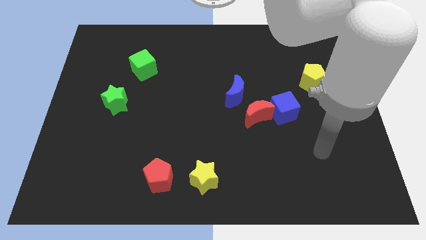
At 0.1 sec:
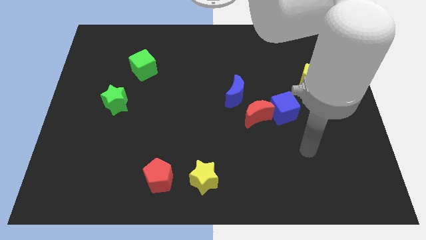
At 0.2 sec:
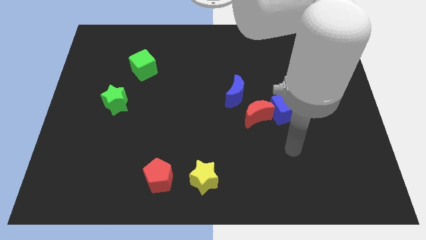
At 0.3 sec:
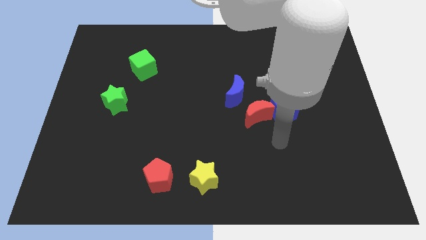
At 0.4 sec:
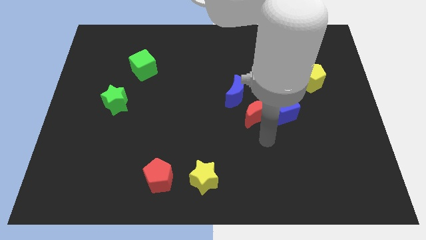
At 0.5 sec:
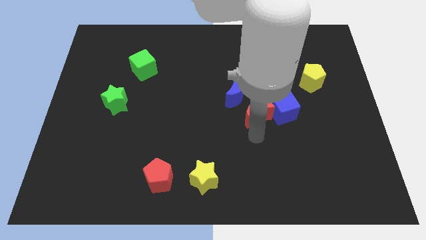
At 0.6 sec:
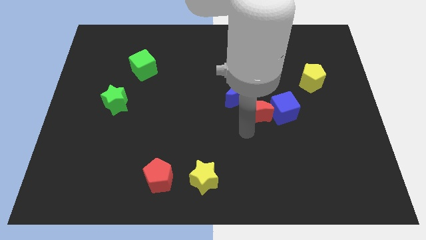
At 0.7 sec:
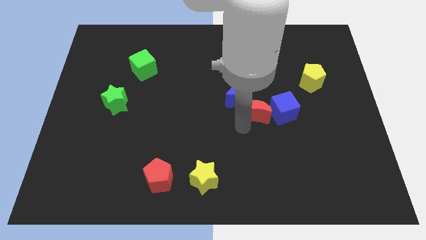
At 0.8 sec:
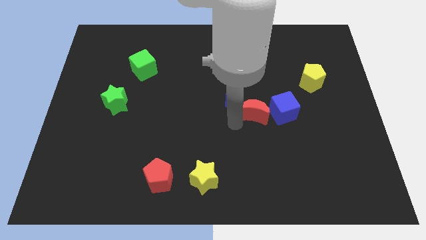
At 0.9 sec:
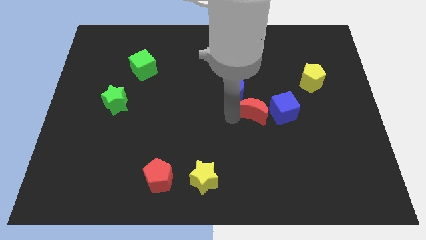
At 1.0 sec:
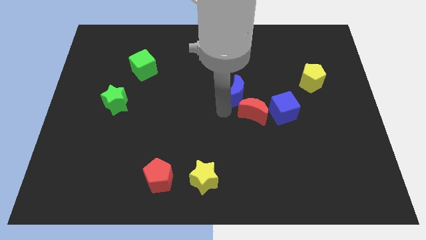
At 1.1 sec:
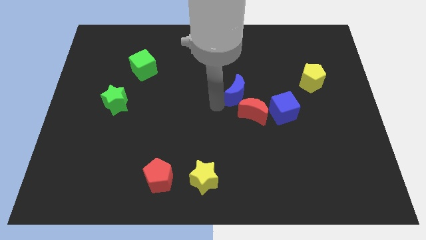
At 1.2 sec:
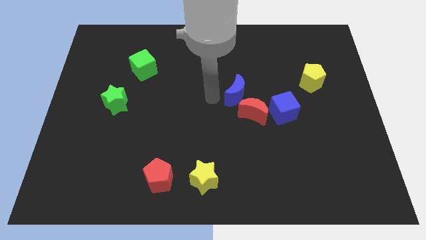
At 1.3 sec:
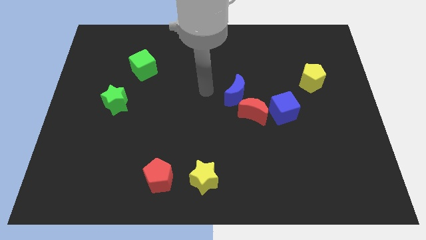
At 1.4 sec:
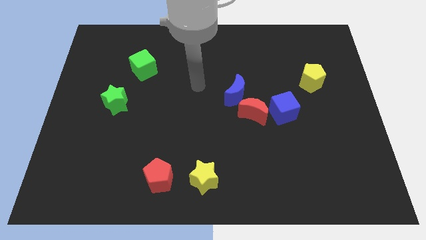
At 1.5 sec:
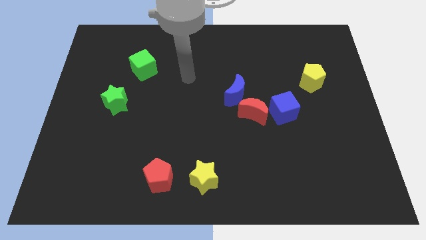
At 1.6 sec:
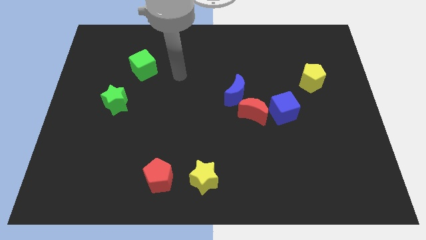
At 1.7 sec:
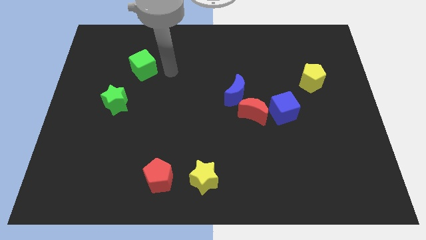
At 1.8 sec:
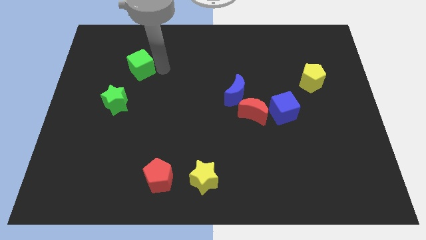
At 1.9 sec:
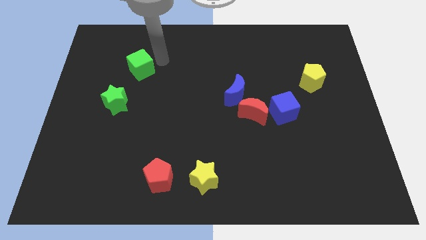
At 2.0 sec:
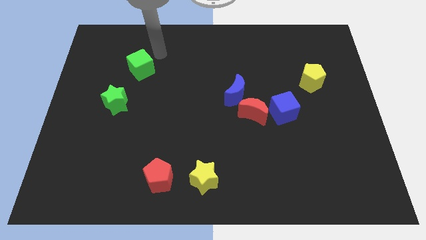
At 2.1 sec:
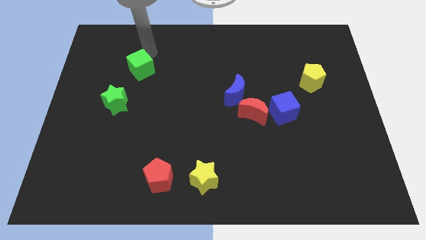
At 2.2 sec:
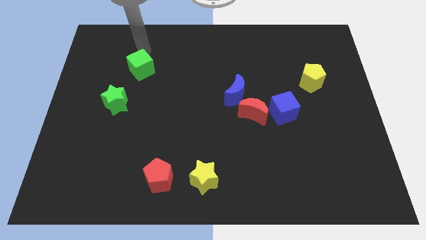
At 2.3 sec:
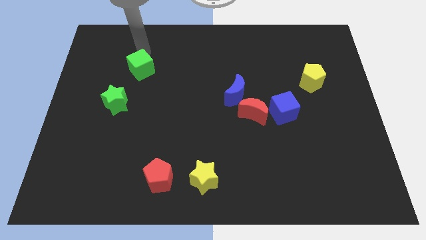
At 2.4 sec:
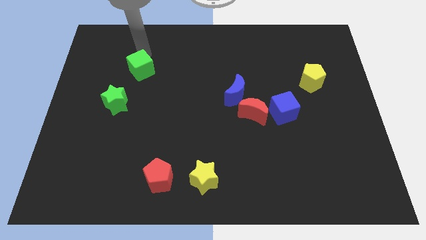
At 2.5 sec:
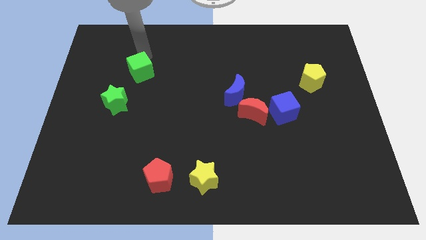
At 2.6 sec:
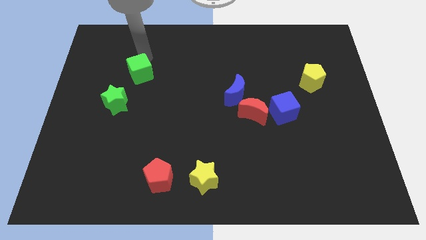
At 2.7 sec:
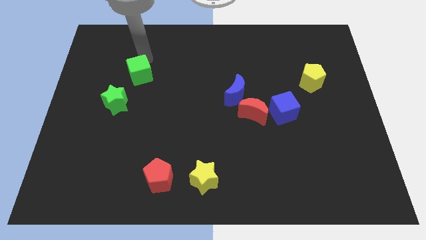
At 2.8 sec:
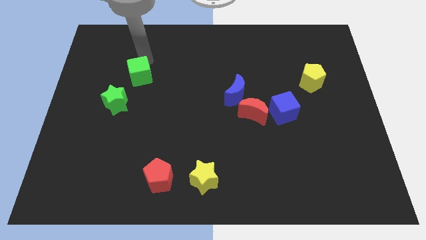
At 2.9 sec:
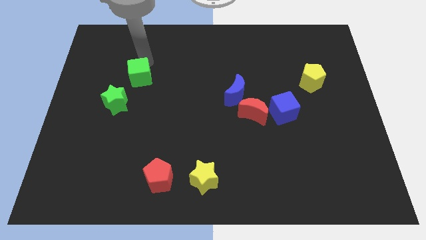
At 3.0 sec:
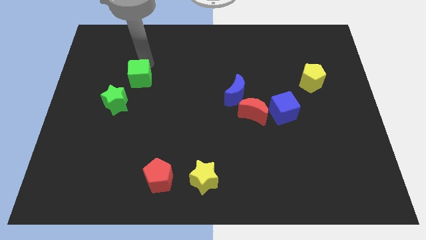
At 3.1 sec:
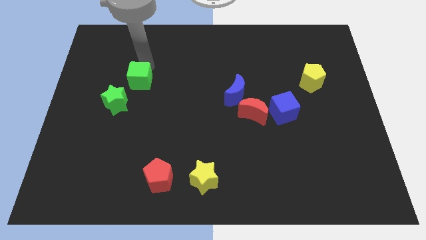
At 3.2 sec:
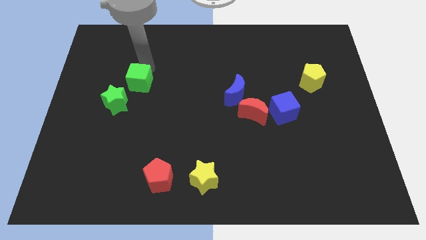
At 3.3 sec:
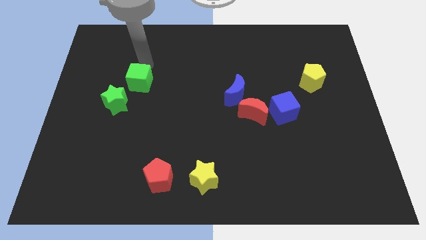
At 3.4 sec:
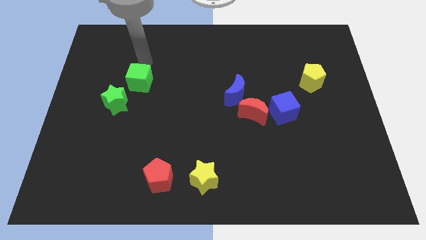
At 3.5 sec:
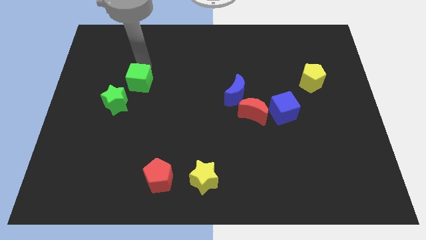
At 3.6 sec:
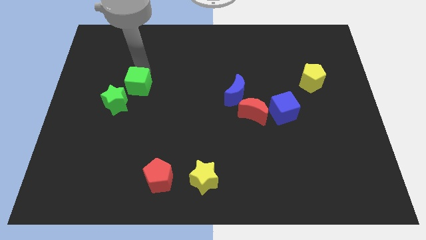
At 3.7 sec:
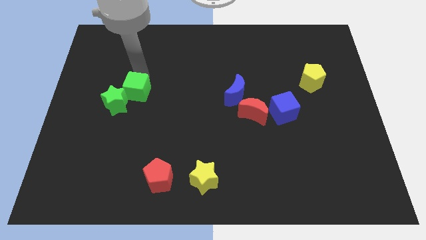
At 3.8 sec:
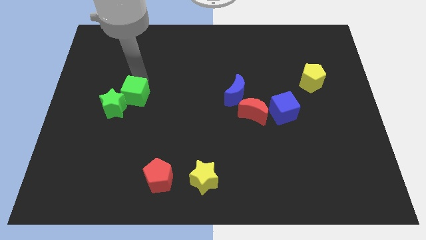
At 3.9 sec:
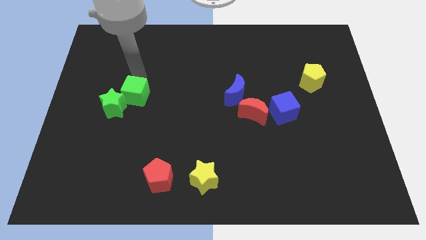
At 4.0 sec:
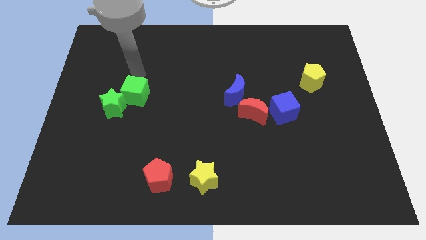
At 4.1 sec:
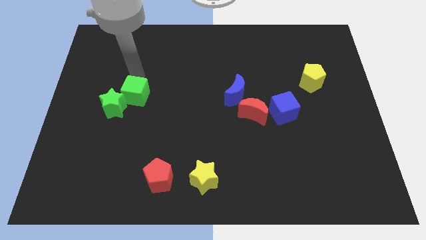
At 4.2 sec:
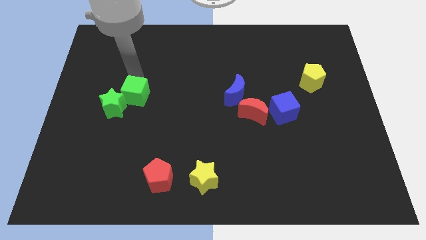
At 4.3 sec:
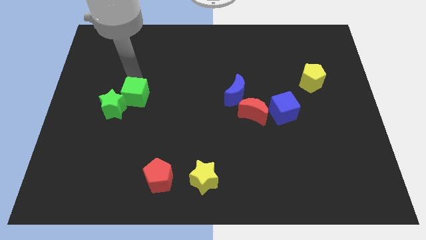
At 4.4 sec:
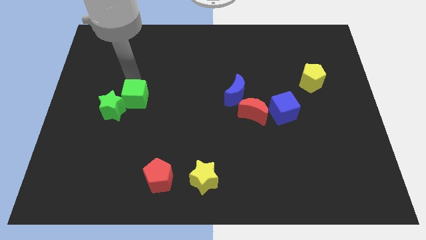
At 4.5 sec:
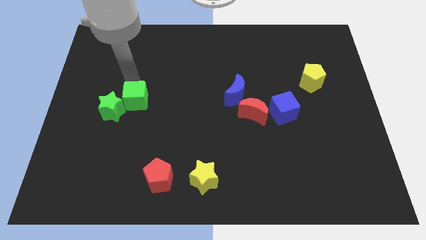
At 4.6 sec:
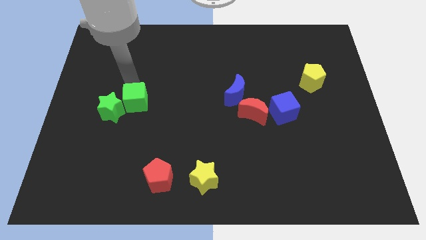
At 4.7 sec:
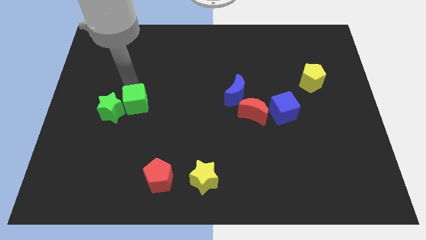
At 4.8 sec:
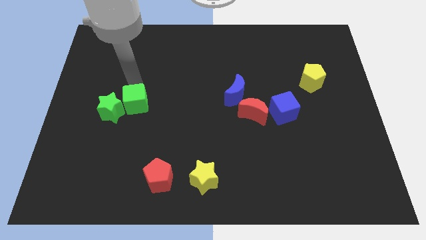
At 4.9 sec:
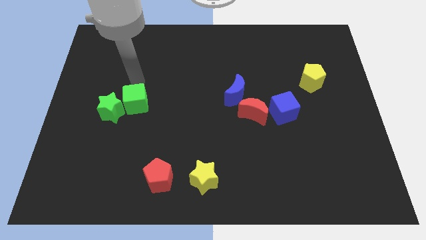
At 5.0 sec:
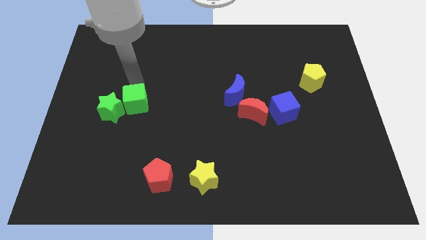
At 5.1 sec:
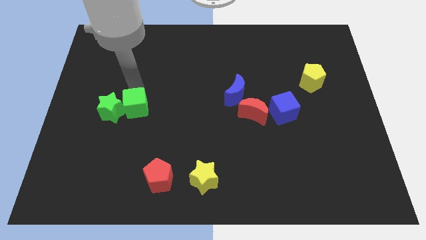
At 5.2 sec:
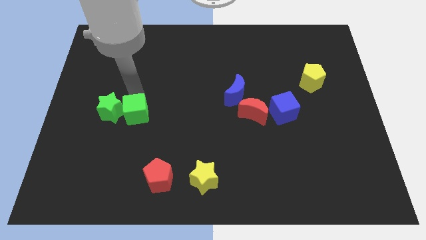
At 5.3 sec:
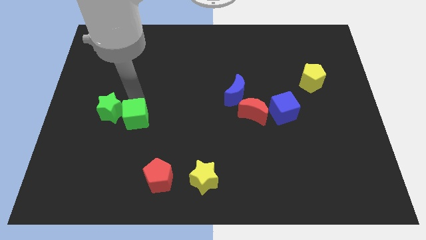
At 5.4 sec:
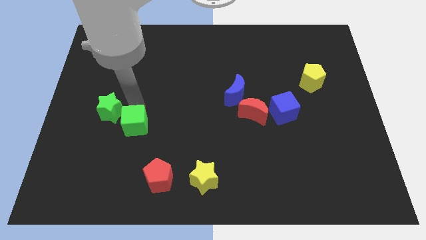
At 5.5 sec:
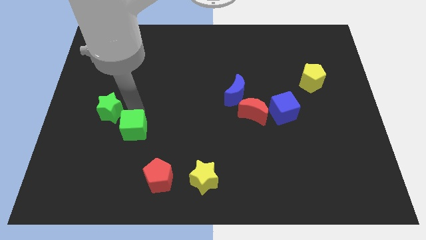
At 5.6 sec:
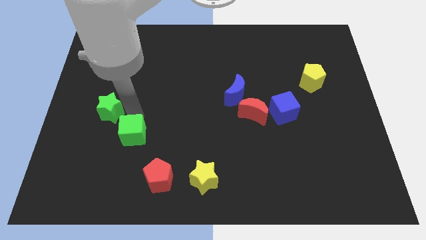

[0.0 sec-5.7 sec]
push the green cube downwards

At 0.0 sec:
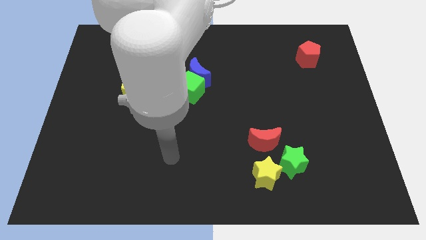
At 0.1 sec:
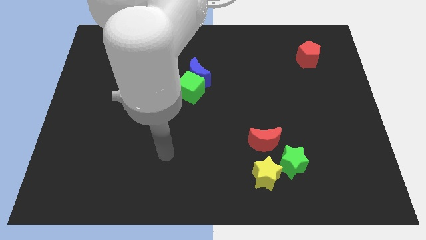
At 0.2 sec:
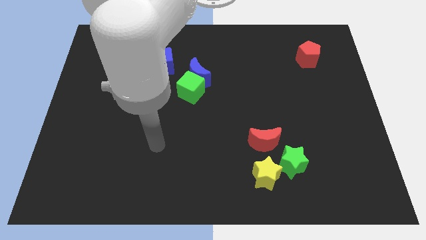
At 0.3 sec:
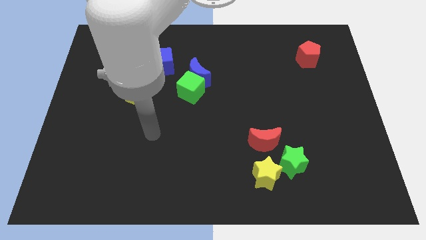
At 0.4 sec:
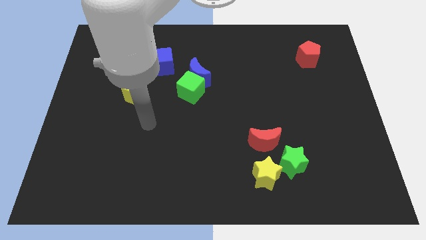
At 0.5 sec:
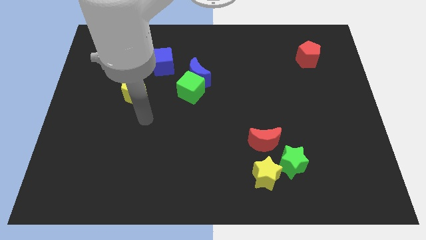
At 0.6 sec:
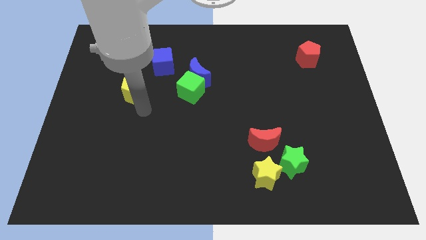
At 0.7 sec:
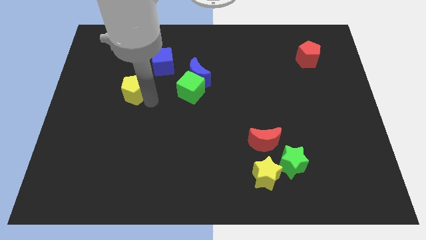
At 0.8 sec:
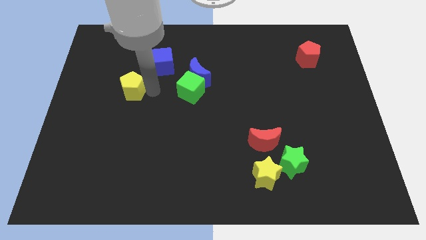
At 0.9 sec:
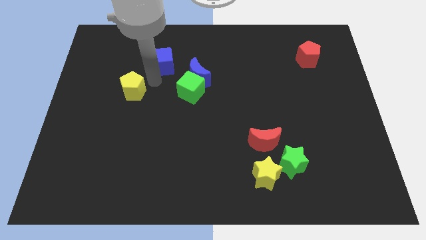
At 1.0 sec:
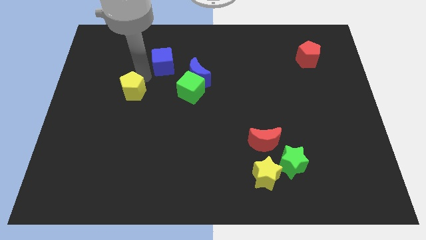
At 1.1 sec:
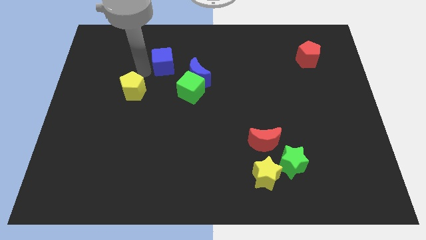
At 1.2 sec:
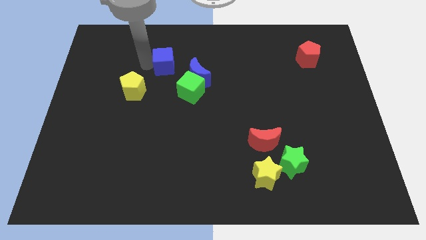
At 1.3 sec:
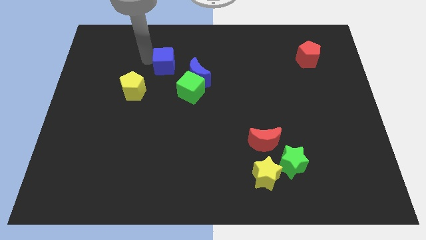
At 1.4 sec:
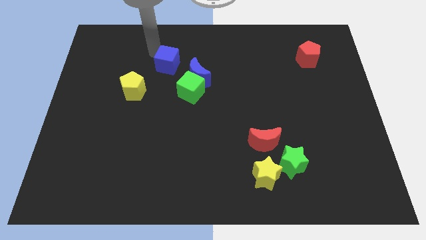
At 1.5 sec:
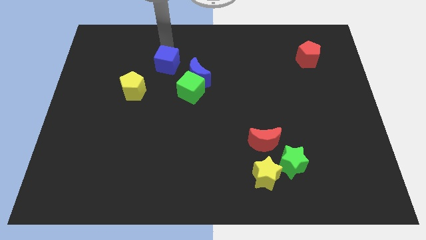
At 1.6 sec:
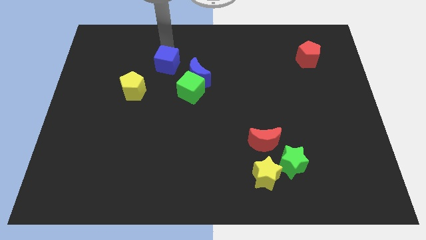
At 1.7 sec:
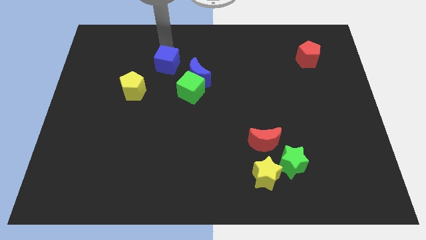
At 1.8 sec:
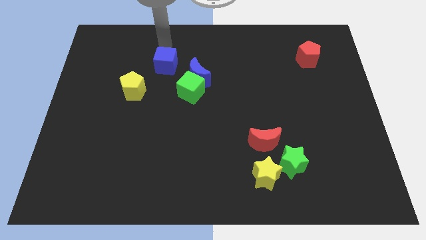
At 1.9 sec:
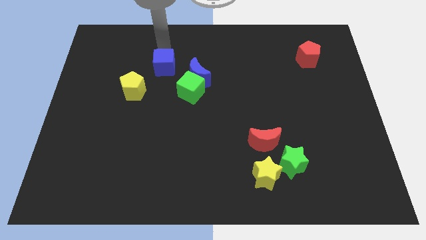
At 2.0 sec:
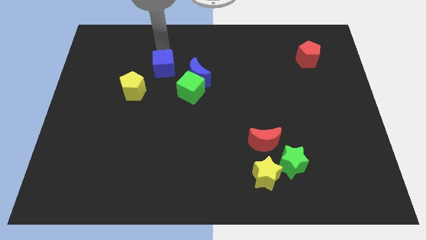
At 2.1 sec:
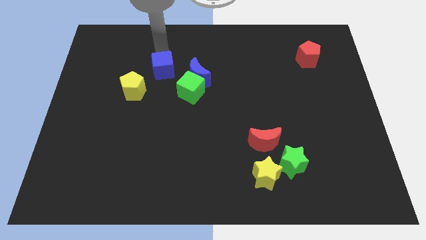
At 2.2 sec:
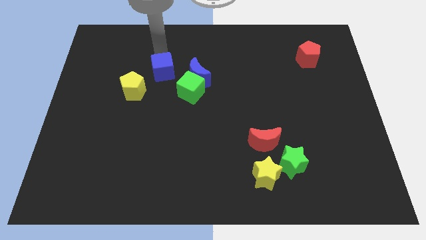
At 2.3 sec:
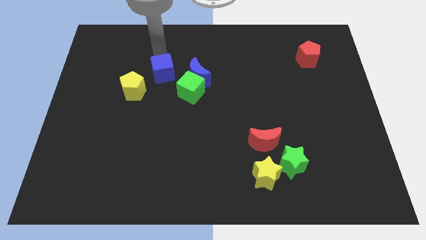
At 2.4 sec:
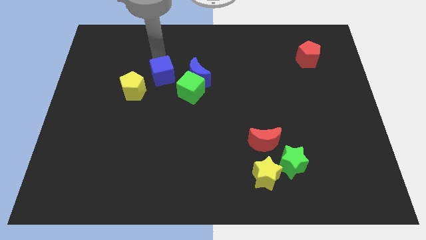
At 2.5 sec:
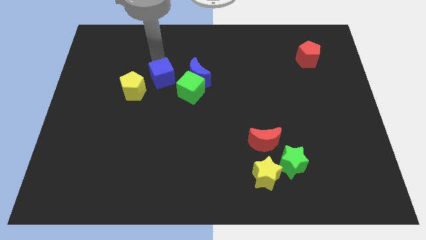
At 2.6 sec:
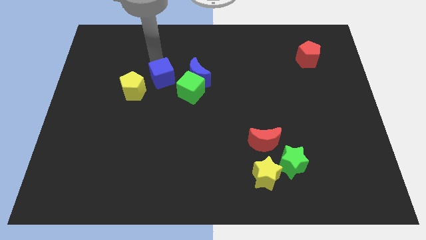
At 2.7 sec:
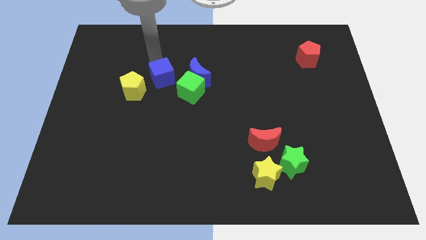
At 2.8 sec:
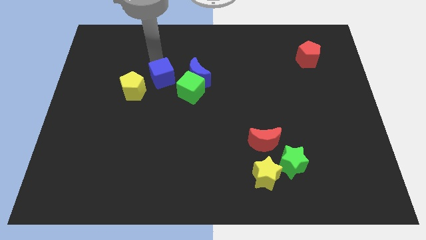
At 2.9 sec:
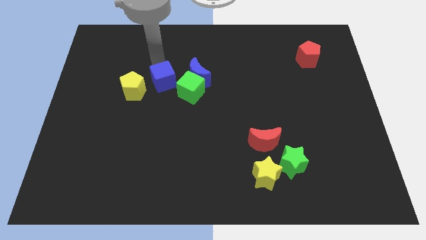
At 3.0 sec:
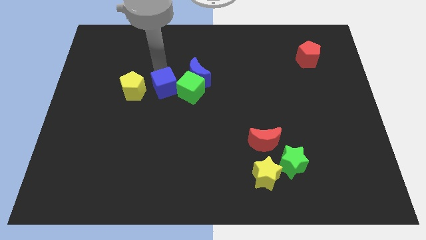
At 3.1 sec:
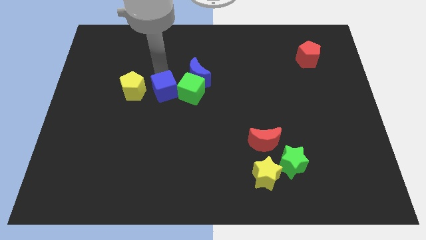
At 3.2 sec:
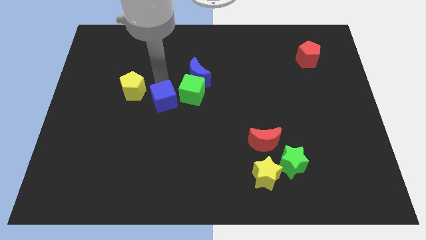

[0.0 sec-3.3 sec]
push the blue cube downwards and then right a bit
